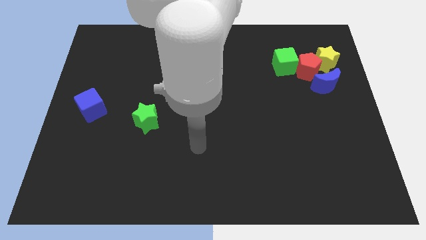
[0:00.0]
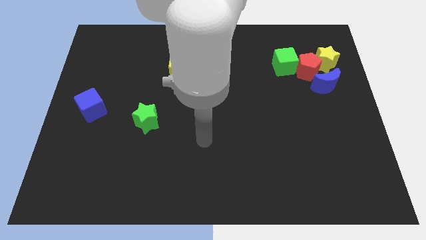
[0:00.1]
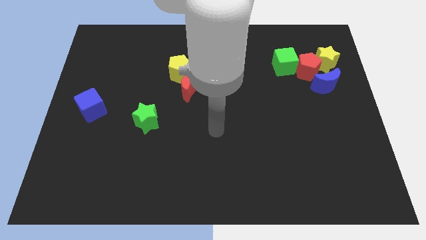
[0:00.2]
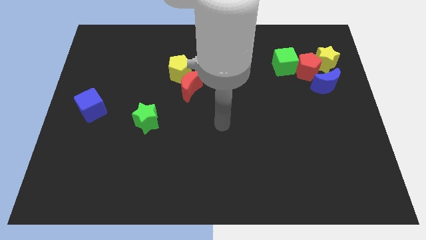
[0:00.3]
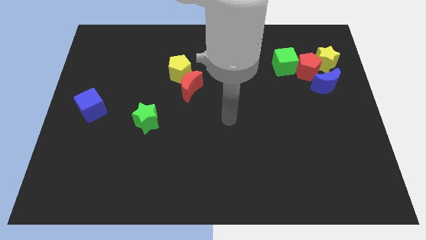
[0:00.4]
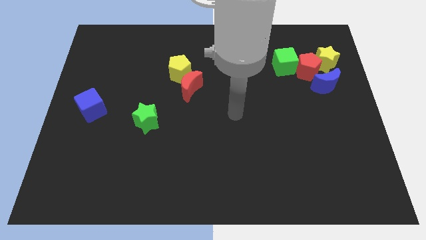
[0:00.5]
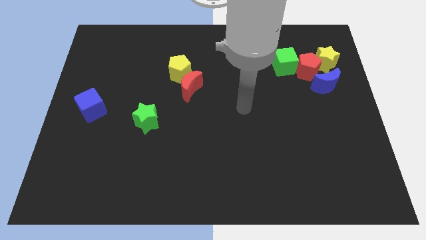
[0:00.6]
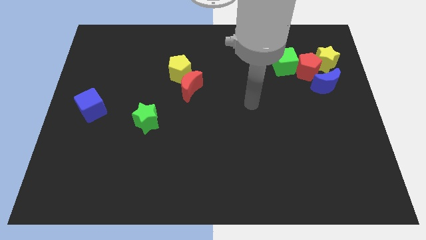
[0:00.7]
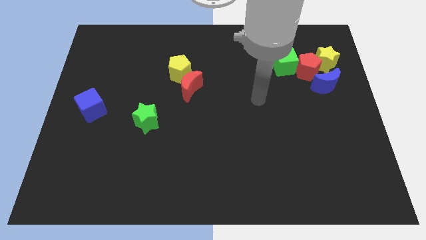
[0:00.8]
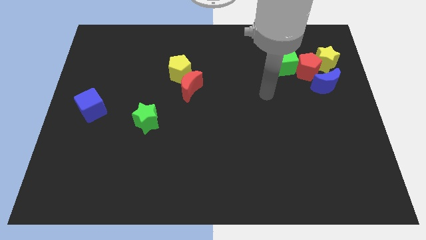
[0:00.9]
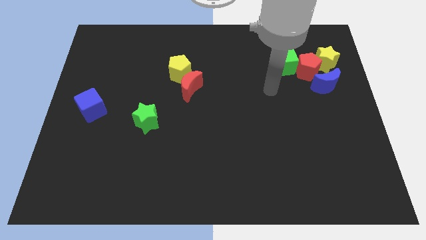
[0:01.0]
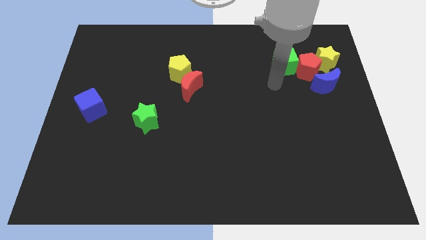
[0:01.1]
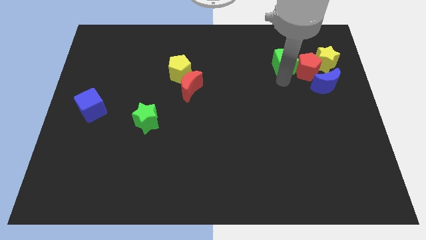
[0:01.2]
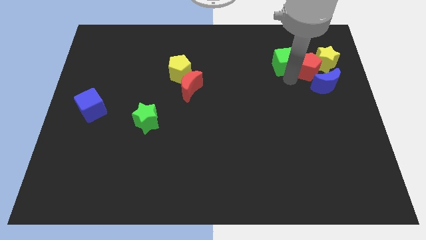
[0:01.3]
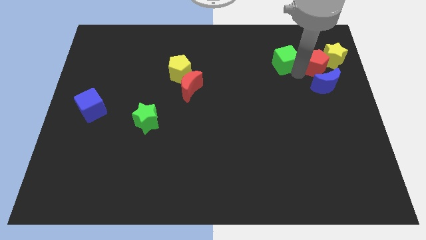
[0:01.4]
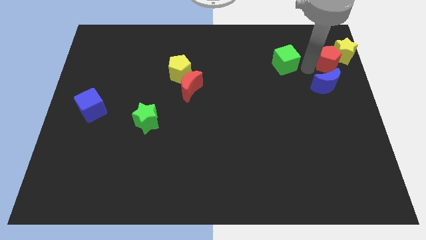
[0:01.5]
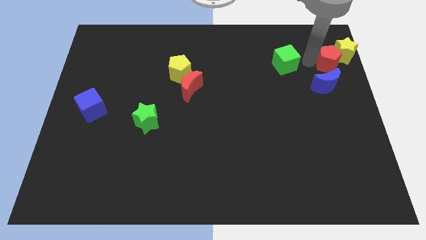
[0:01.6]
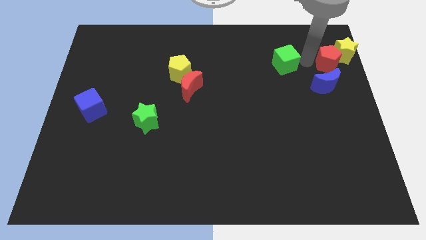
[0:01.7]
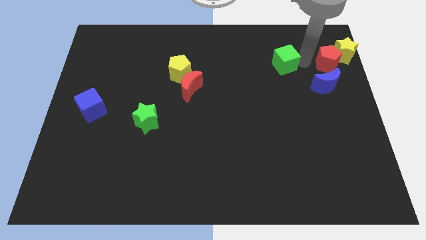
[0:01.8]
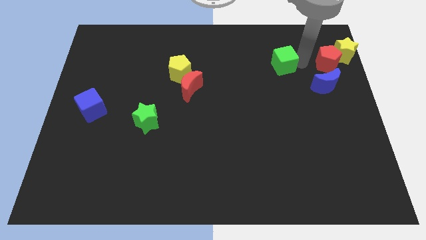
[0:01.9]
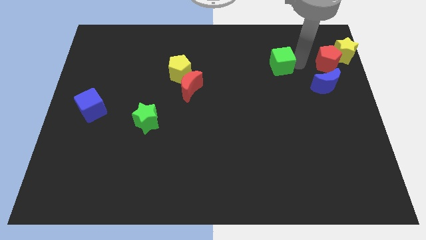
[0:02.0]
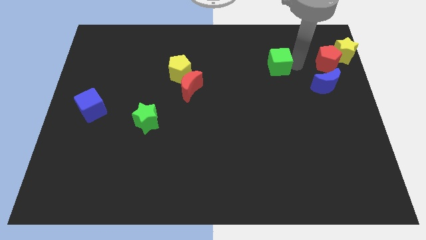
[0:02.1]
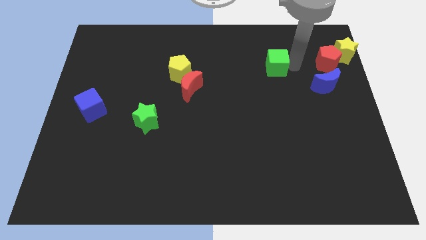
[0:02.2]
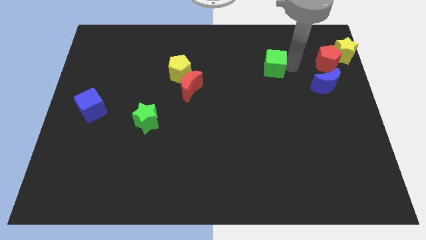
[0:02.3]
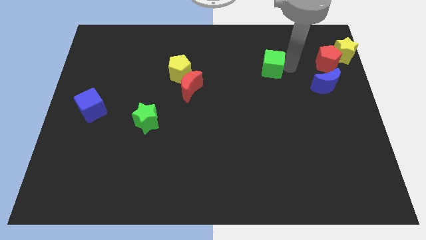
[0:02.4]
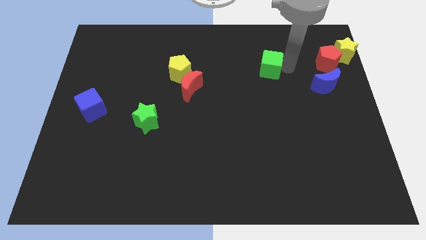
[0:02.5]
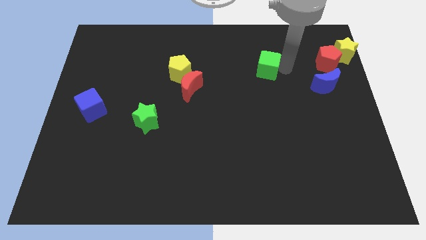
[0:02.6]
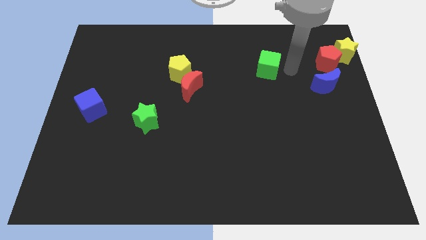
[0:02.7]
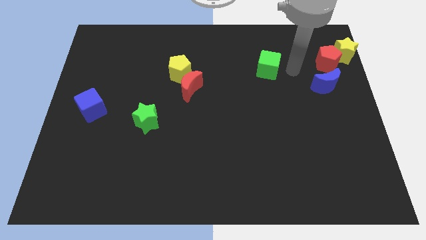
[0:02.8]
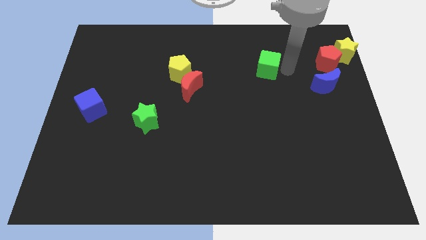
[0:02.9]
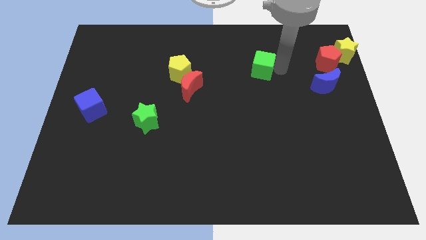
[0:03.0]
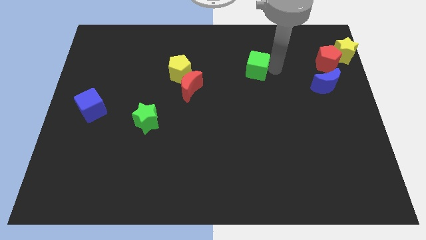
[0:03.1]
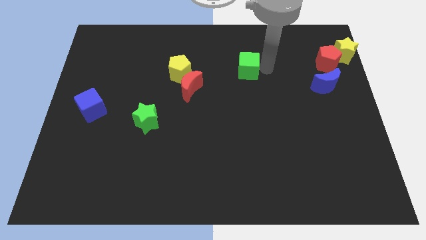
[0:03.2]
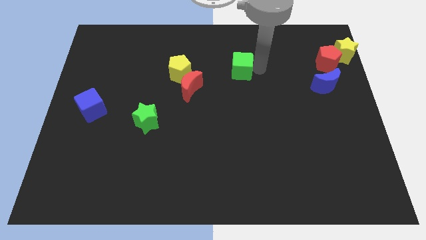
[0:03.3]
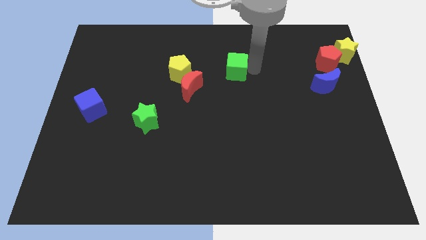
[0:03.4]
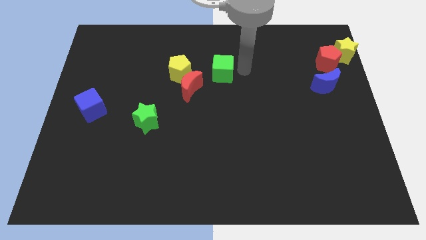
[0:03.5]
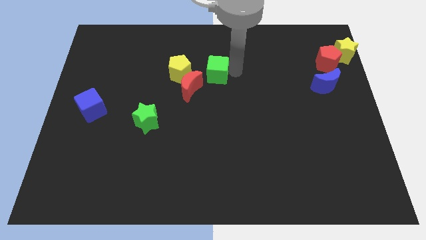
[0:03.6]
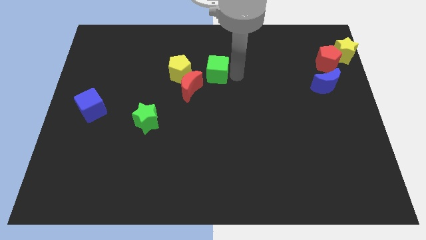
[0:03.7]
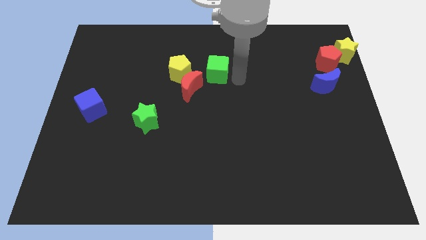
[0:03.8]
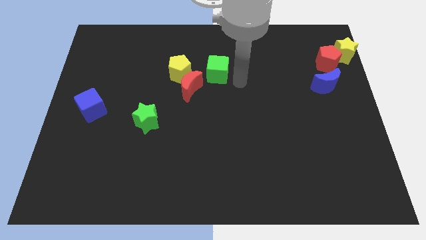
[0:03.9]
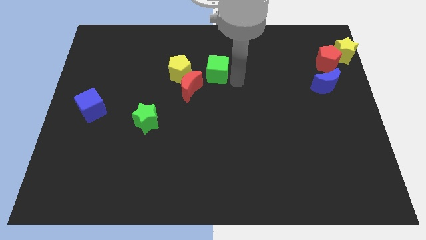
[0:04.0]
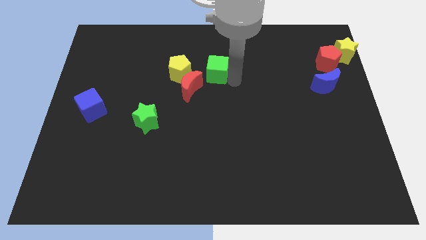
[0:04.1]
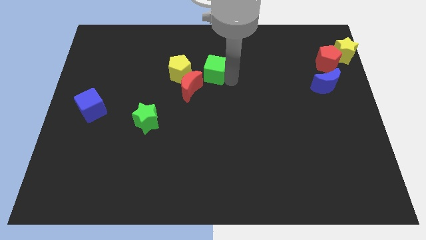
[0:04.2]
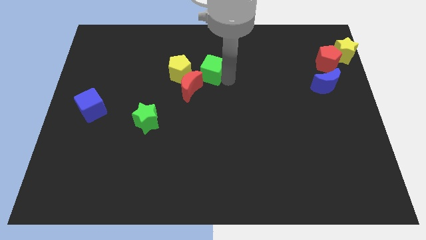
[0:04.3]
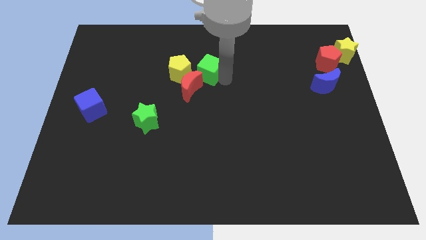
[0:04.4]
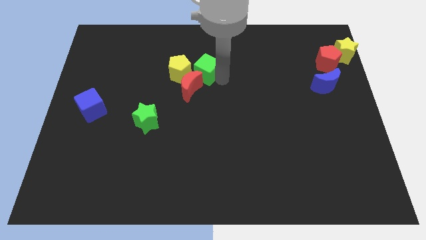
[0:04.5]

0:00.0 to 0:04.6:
move the green cube to the left

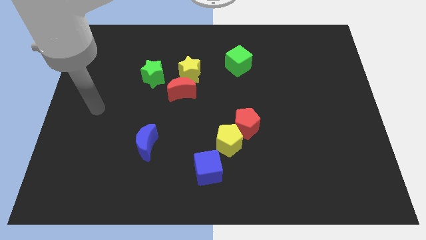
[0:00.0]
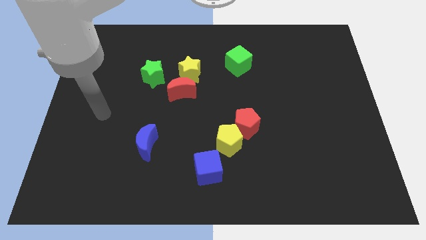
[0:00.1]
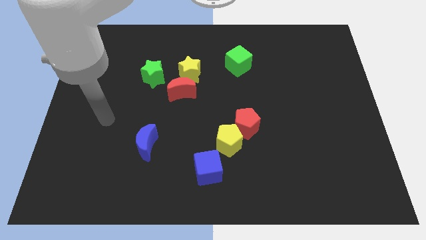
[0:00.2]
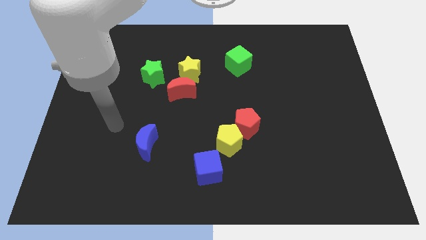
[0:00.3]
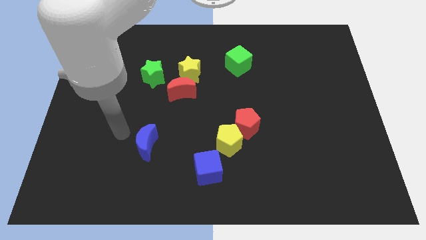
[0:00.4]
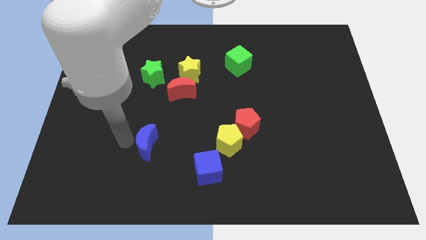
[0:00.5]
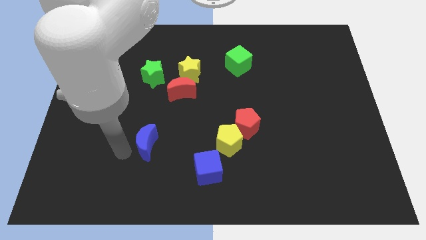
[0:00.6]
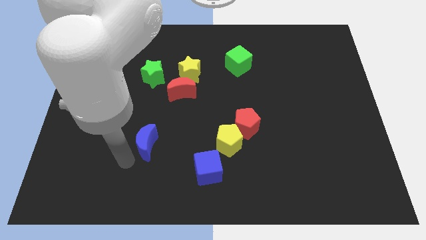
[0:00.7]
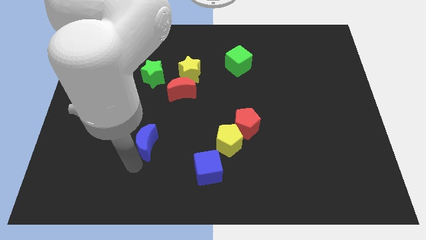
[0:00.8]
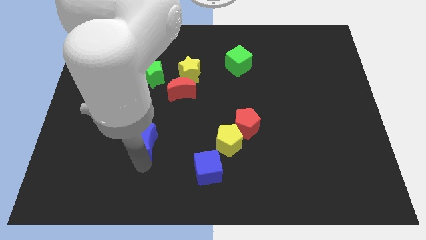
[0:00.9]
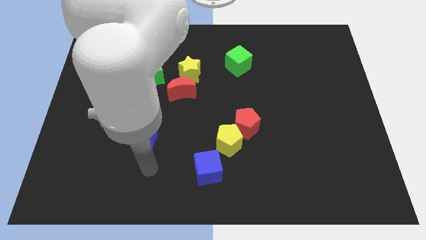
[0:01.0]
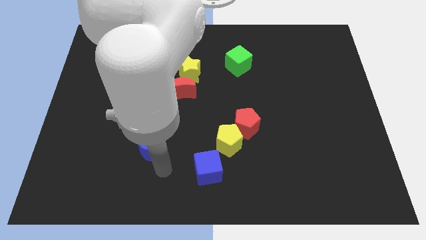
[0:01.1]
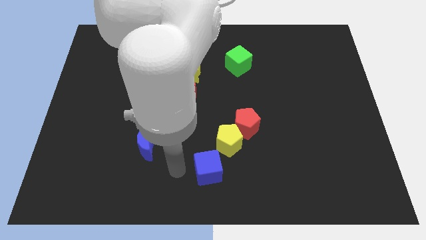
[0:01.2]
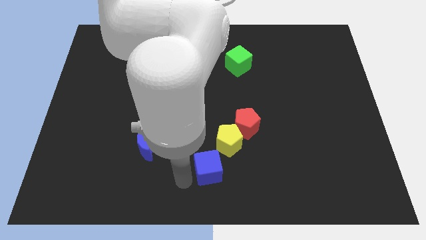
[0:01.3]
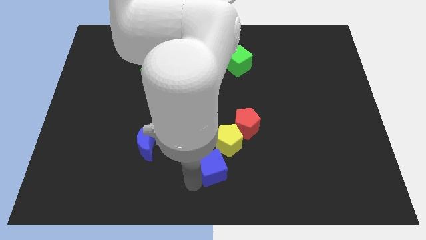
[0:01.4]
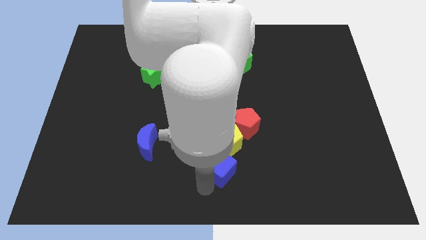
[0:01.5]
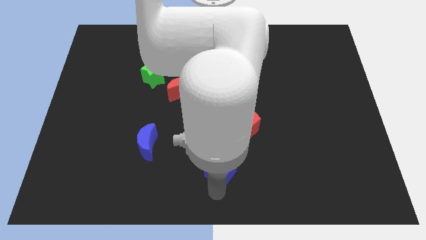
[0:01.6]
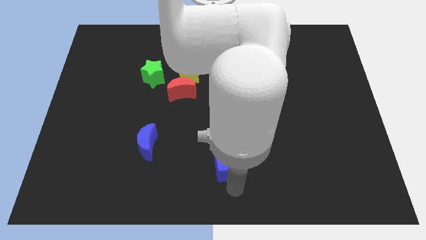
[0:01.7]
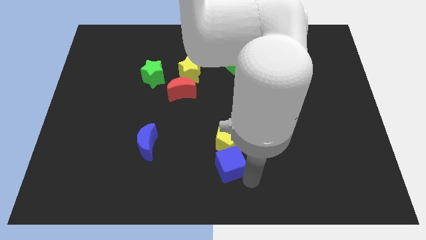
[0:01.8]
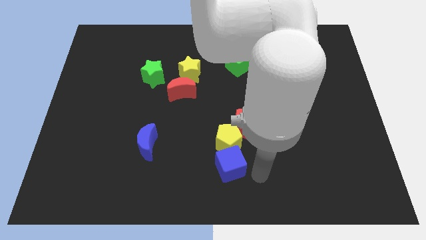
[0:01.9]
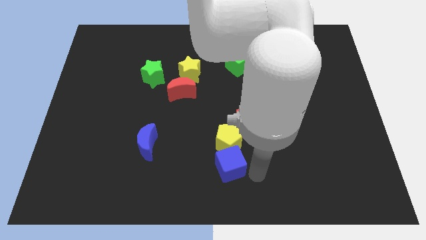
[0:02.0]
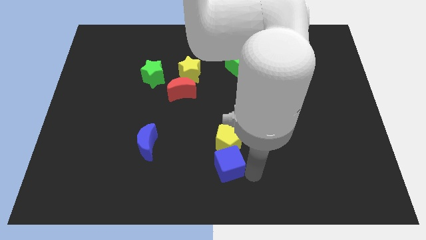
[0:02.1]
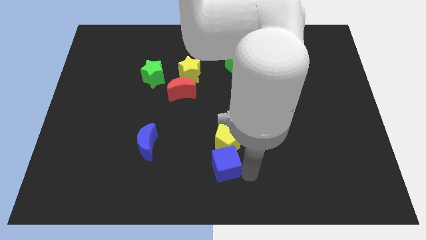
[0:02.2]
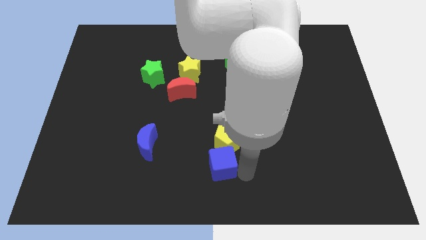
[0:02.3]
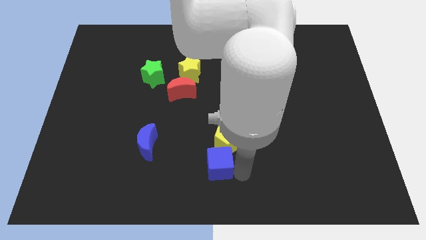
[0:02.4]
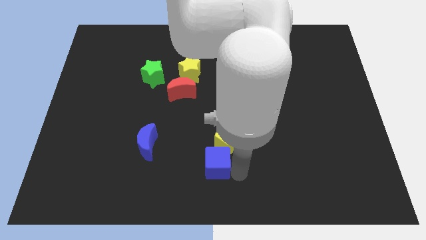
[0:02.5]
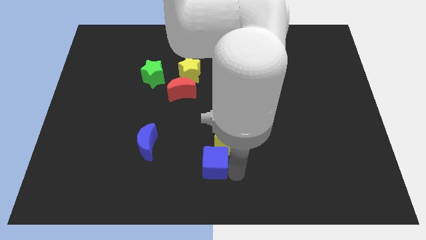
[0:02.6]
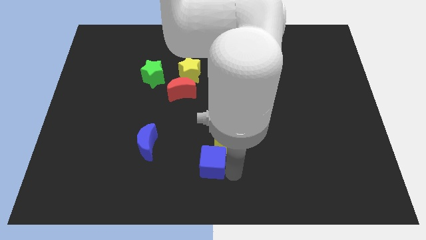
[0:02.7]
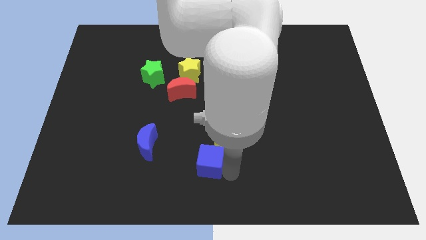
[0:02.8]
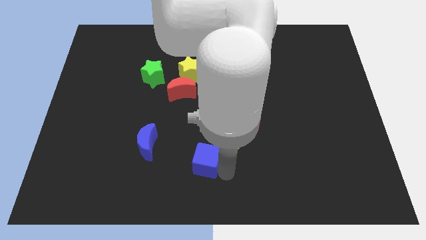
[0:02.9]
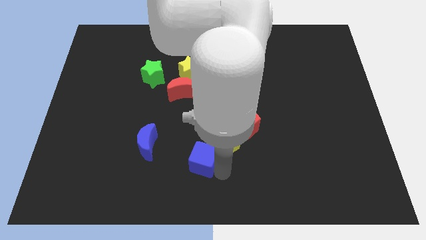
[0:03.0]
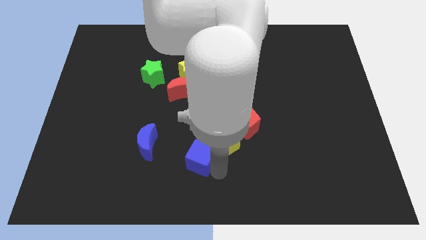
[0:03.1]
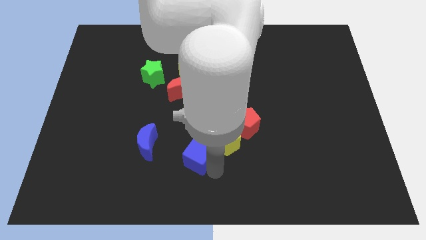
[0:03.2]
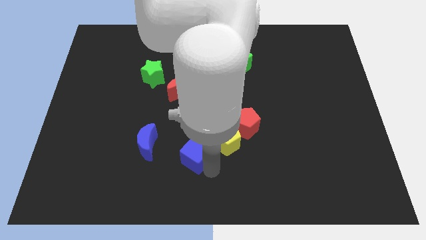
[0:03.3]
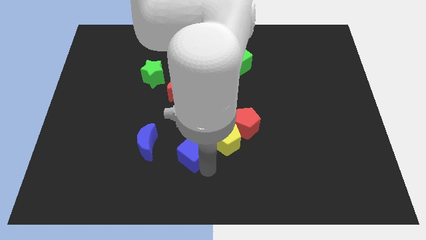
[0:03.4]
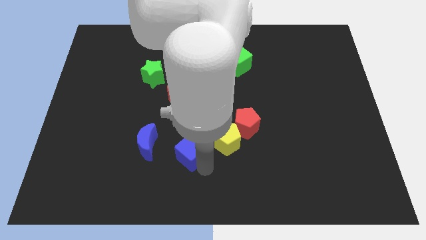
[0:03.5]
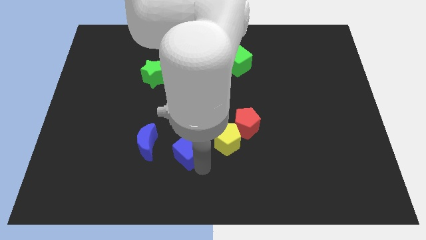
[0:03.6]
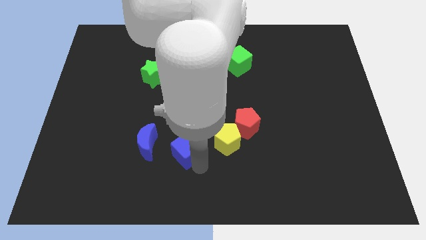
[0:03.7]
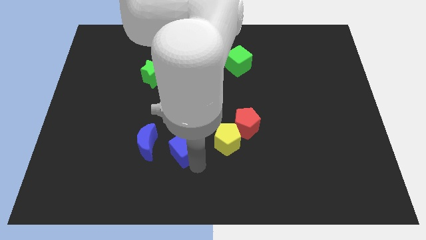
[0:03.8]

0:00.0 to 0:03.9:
move the blue cube diagonally upwards and left a little
